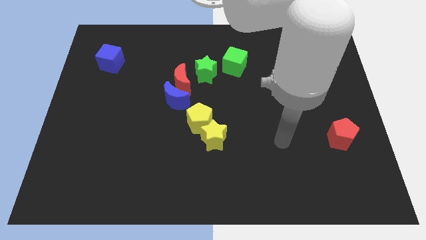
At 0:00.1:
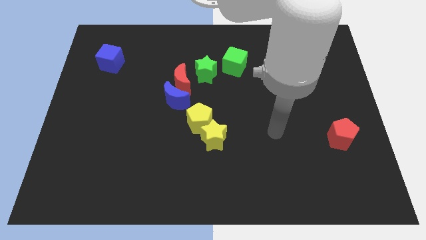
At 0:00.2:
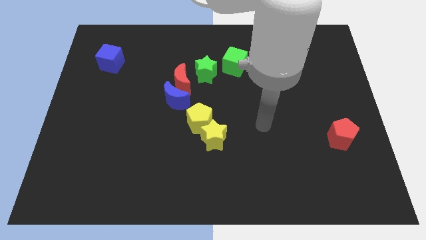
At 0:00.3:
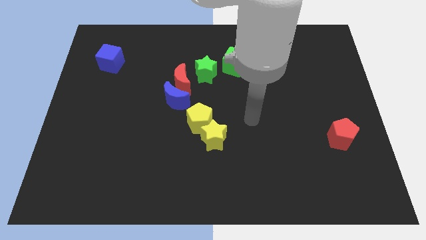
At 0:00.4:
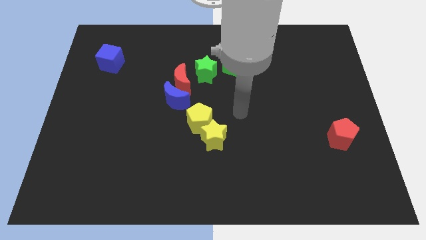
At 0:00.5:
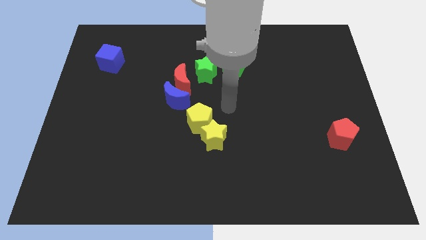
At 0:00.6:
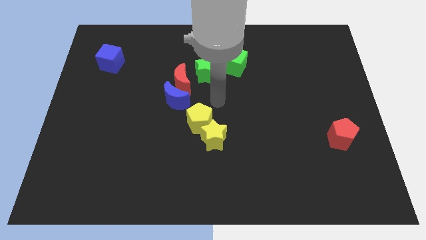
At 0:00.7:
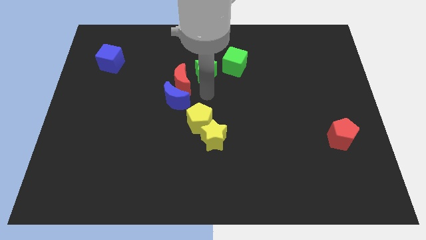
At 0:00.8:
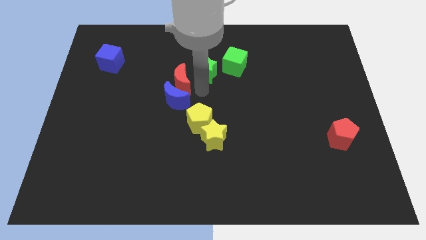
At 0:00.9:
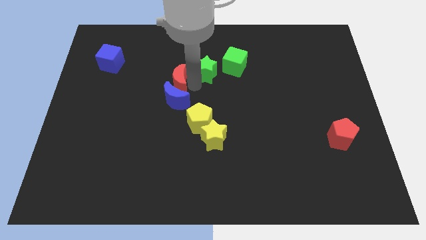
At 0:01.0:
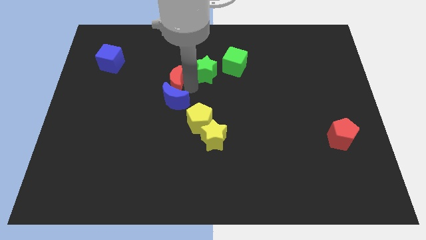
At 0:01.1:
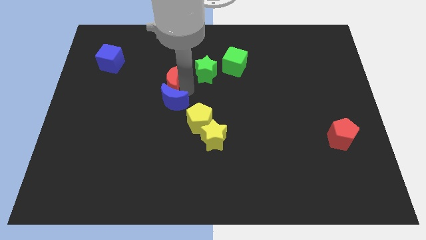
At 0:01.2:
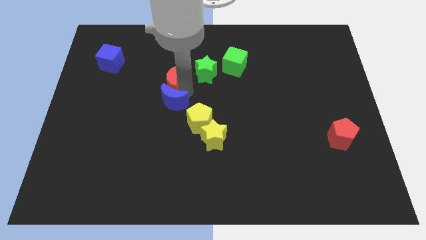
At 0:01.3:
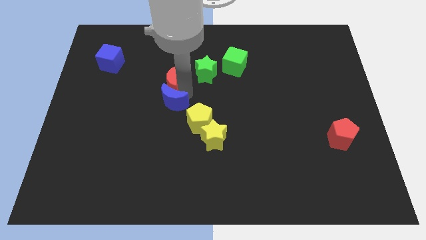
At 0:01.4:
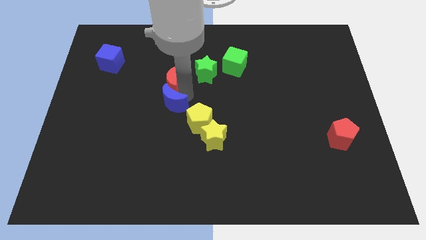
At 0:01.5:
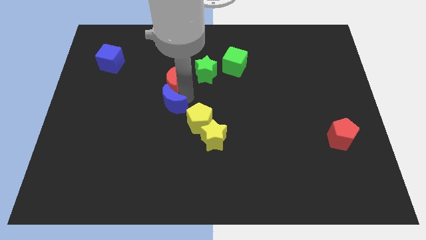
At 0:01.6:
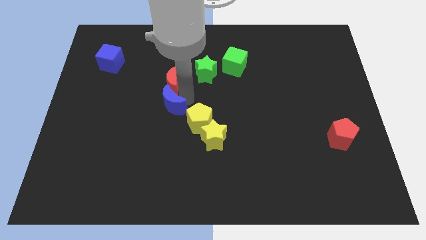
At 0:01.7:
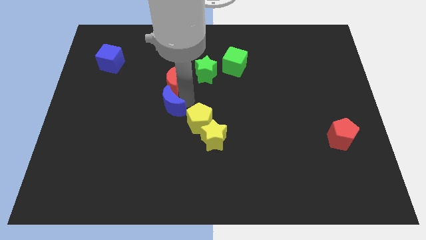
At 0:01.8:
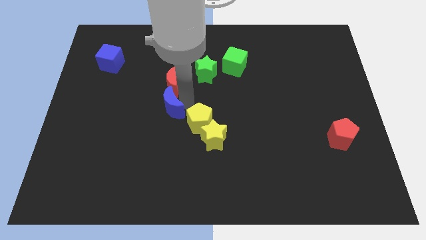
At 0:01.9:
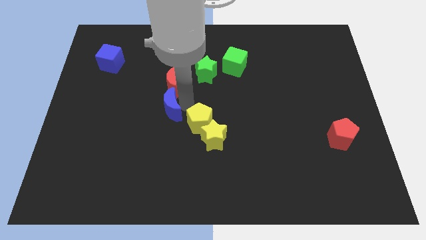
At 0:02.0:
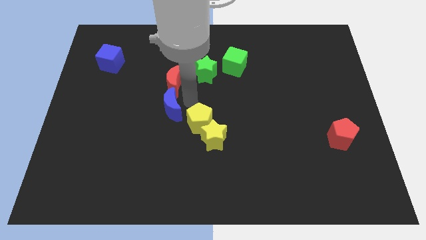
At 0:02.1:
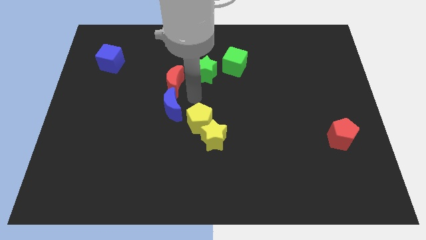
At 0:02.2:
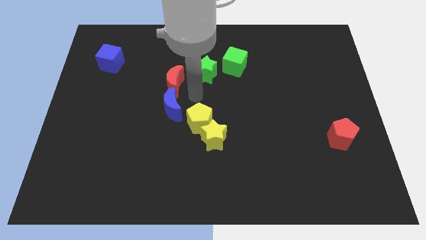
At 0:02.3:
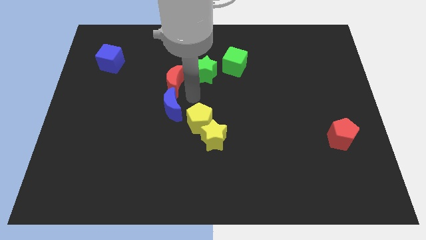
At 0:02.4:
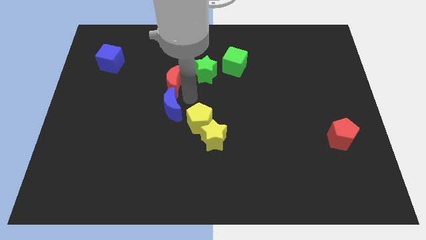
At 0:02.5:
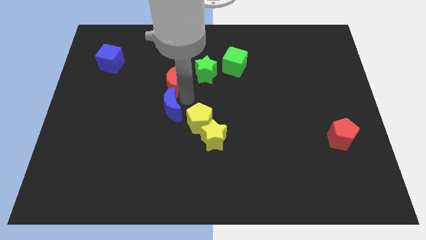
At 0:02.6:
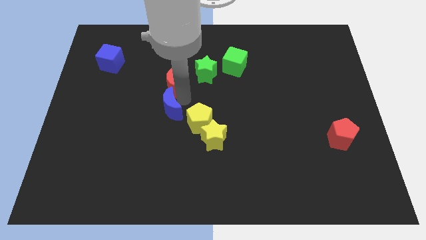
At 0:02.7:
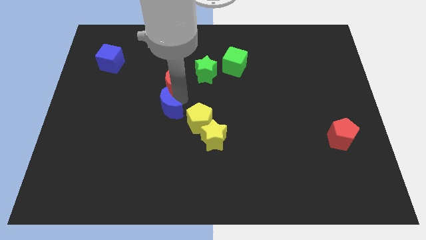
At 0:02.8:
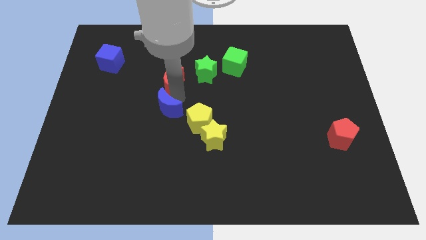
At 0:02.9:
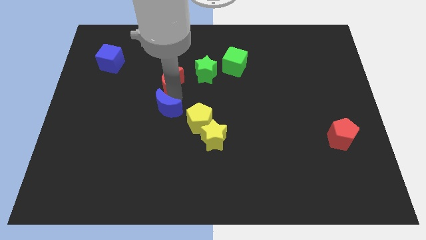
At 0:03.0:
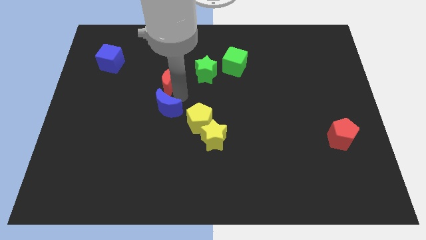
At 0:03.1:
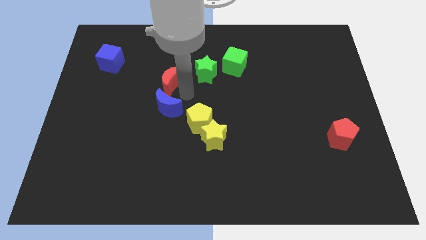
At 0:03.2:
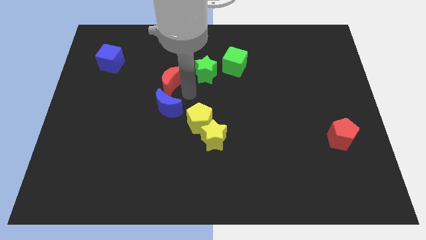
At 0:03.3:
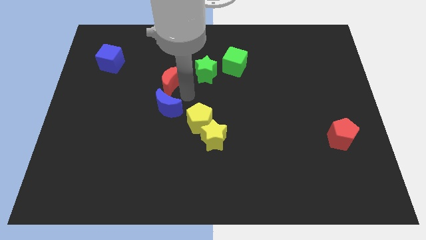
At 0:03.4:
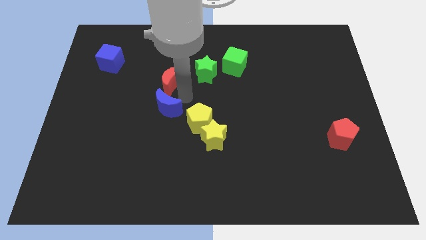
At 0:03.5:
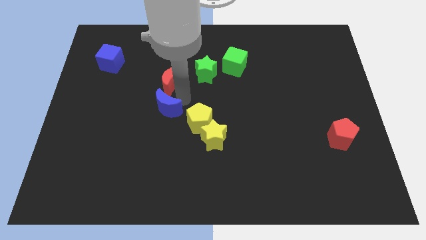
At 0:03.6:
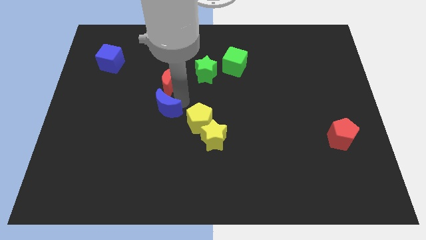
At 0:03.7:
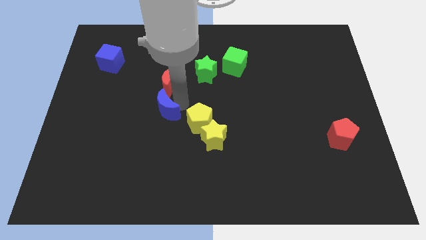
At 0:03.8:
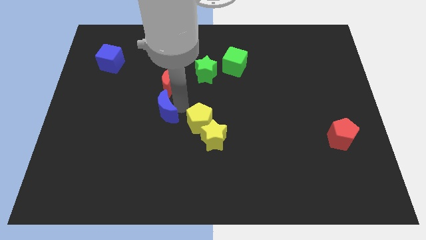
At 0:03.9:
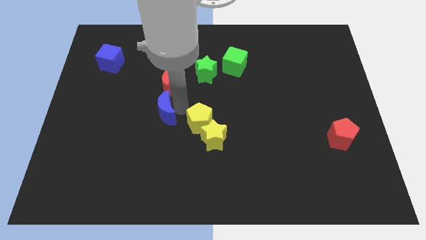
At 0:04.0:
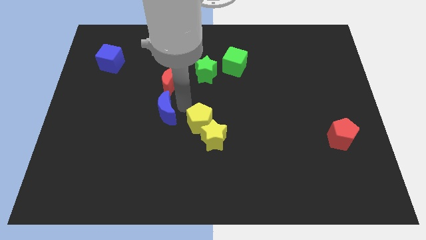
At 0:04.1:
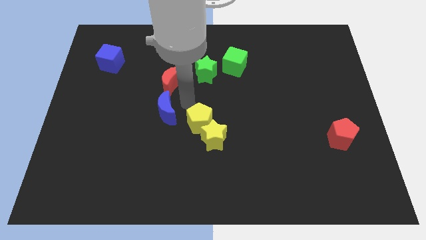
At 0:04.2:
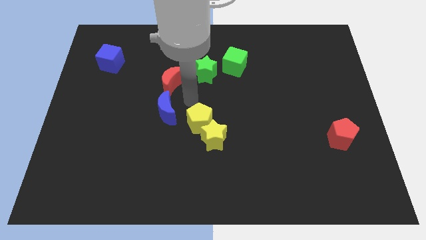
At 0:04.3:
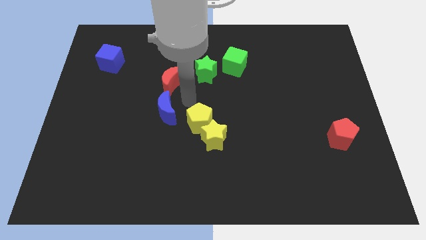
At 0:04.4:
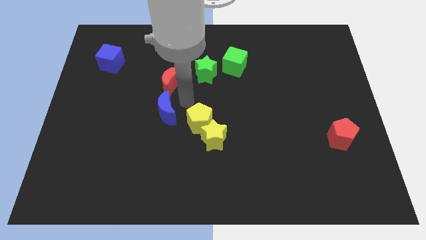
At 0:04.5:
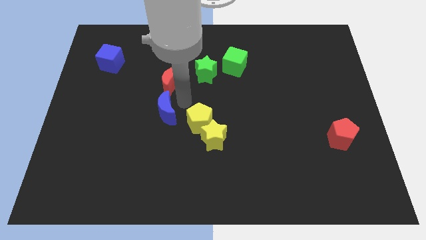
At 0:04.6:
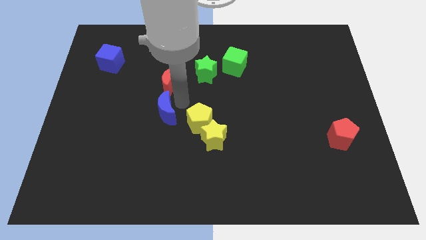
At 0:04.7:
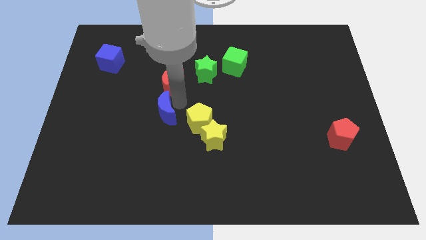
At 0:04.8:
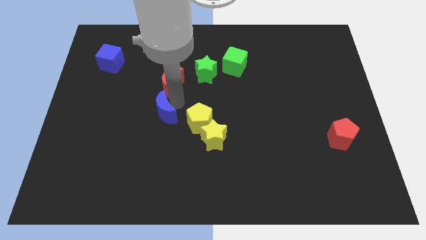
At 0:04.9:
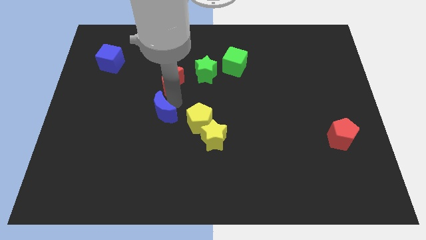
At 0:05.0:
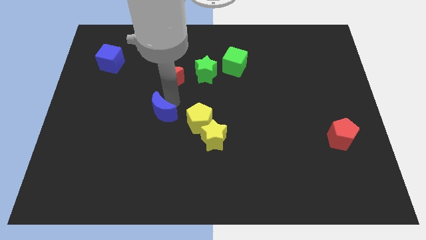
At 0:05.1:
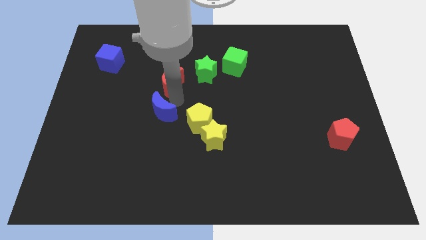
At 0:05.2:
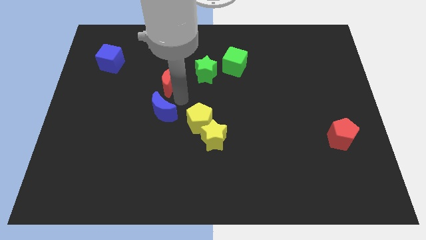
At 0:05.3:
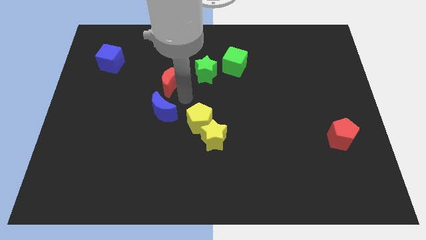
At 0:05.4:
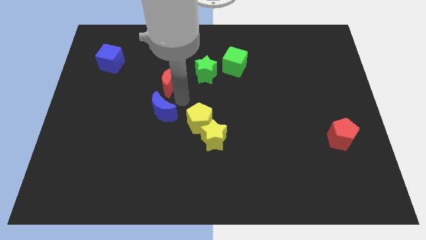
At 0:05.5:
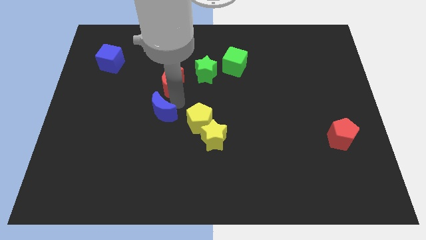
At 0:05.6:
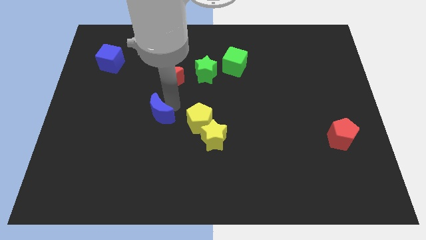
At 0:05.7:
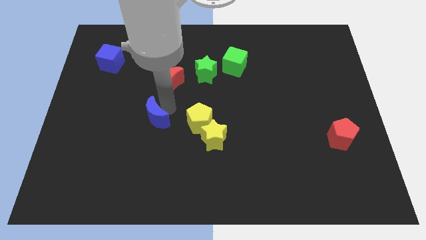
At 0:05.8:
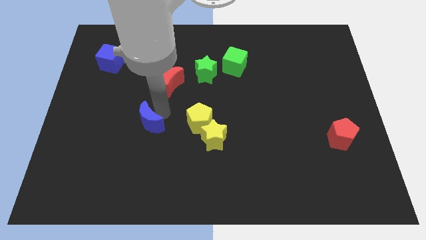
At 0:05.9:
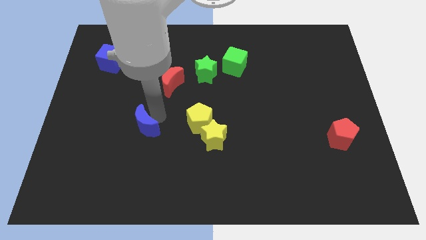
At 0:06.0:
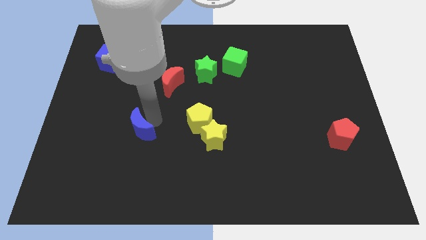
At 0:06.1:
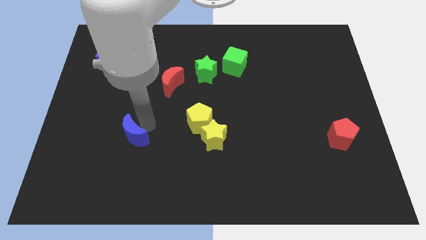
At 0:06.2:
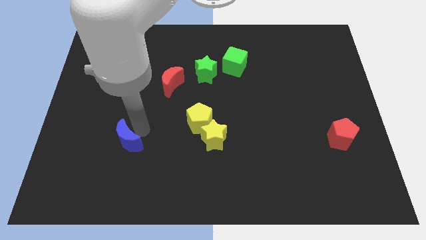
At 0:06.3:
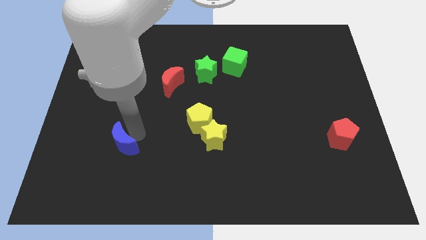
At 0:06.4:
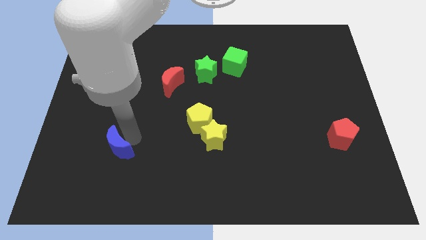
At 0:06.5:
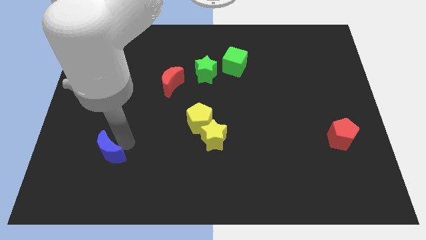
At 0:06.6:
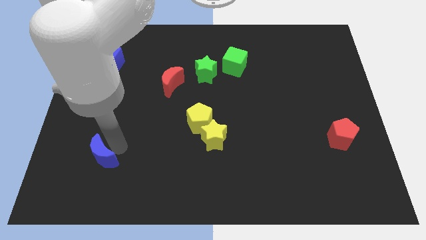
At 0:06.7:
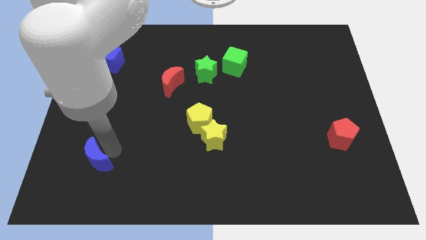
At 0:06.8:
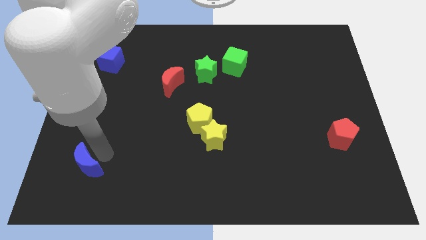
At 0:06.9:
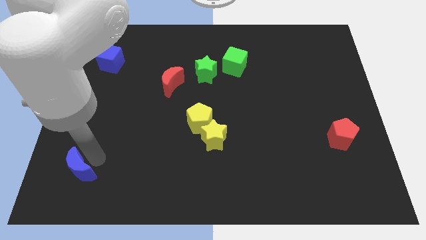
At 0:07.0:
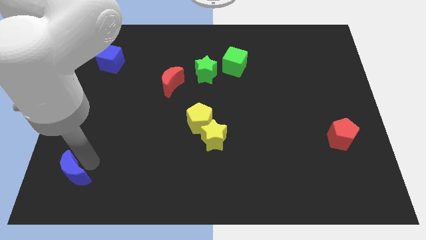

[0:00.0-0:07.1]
push the blue moon to the bottom left corner
